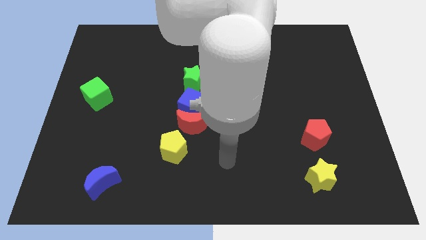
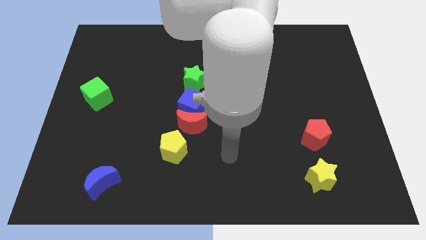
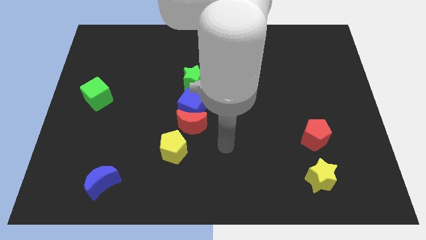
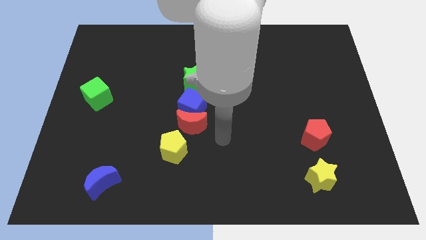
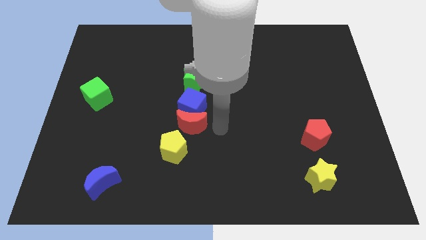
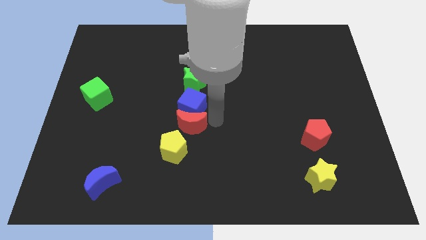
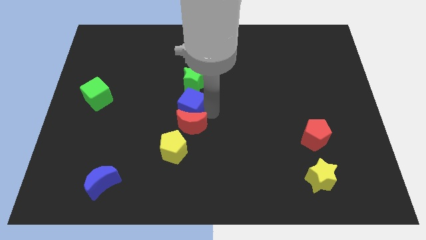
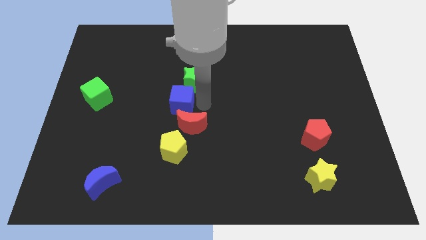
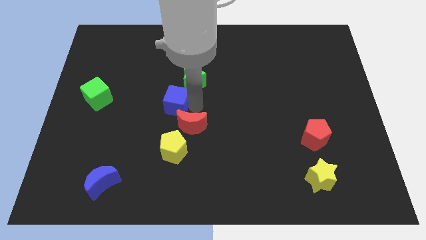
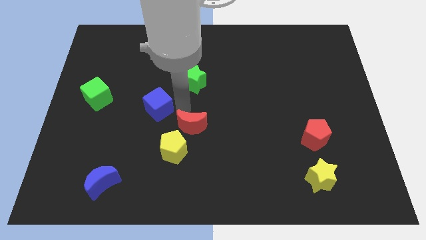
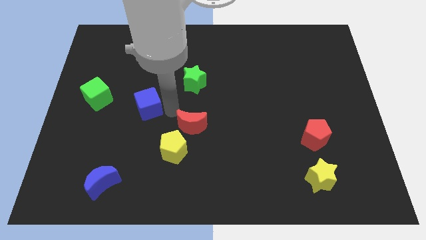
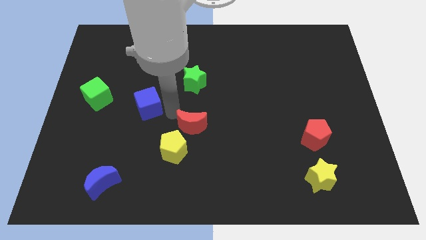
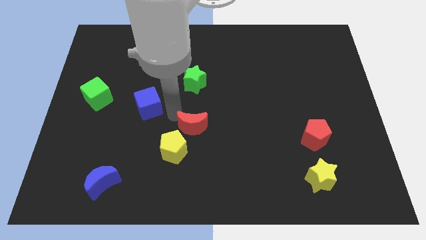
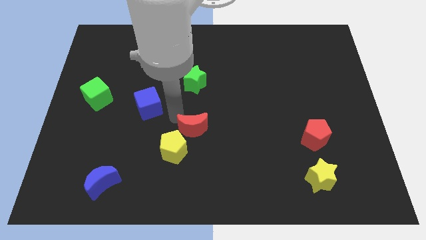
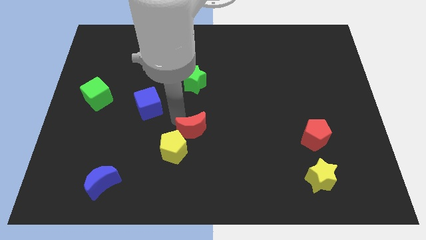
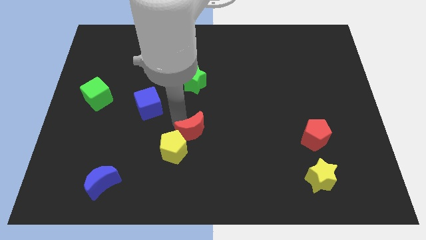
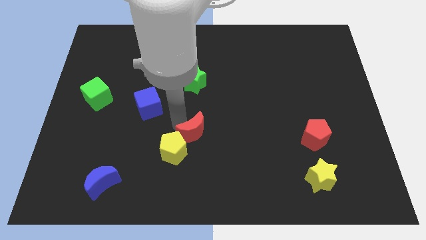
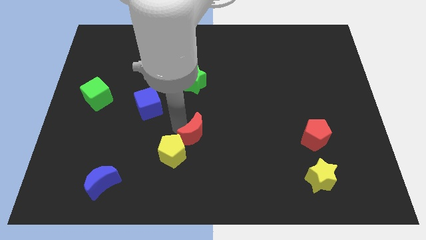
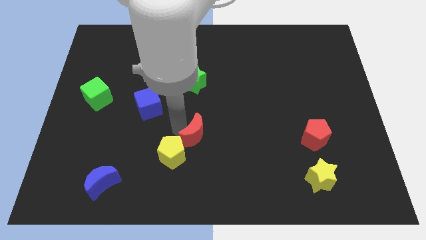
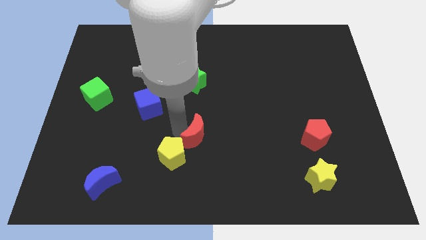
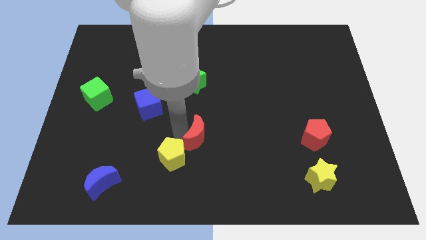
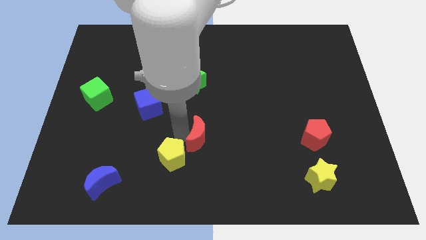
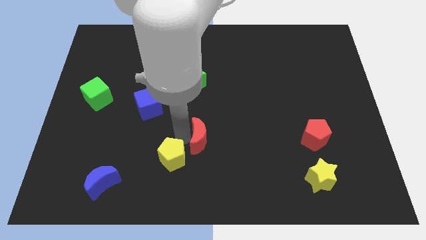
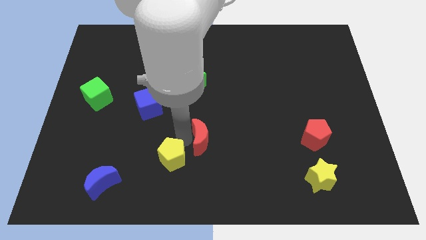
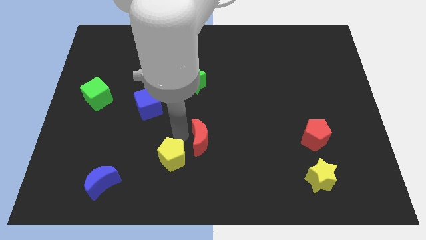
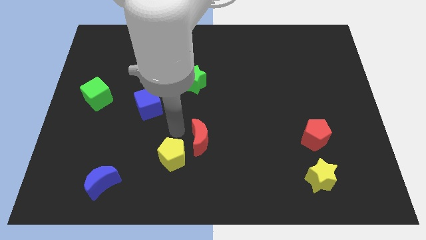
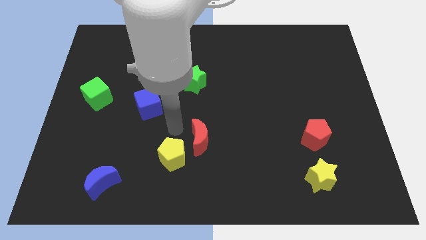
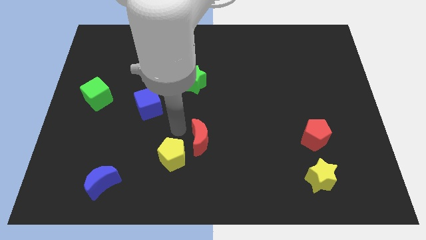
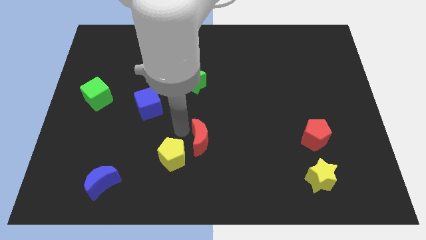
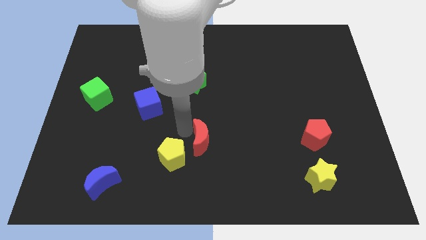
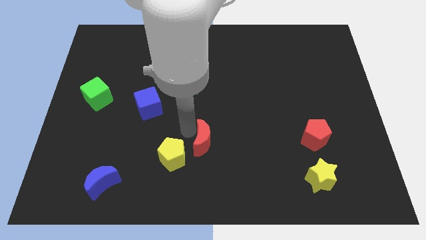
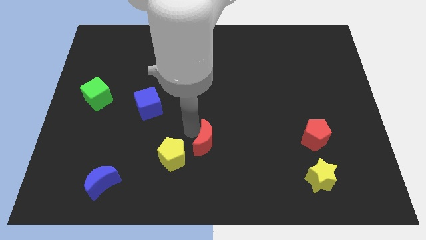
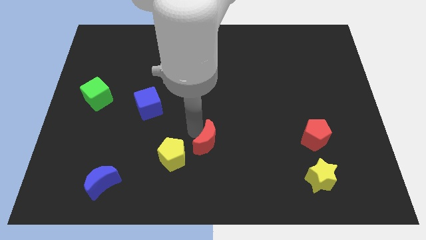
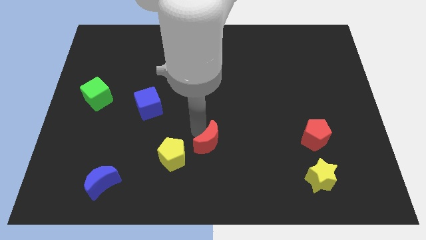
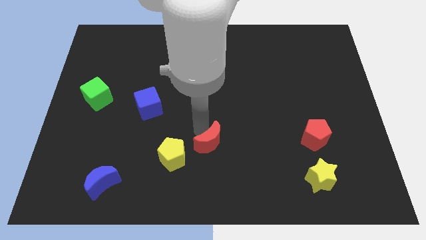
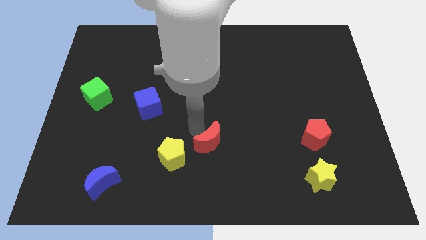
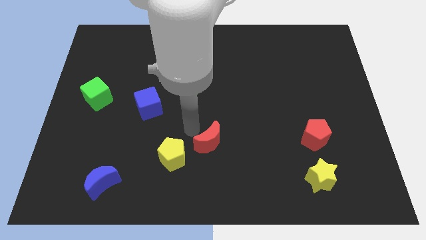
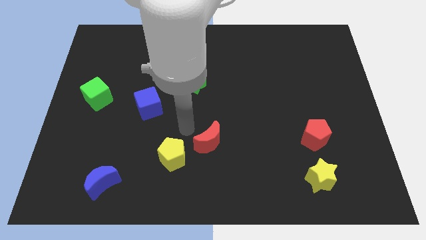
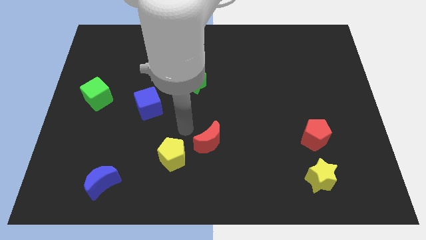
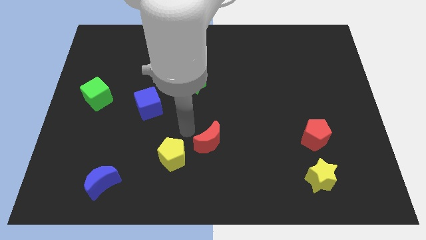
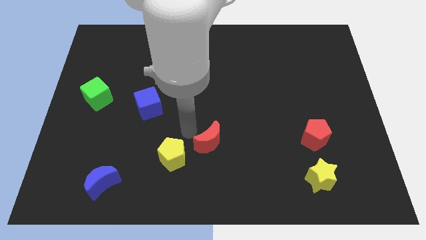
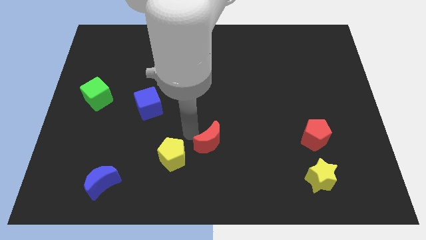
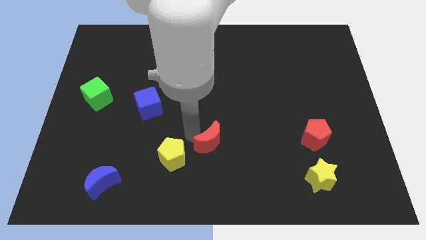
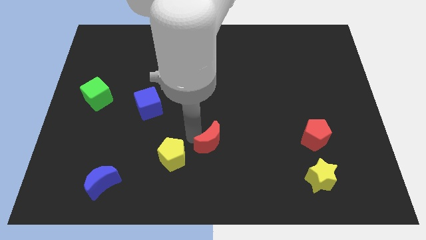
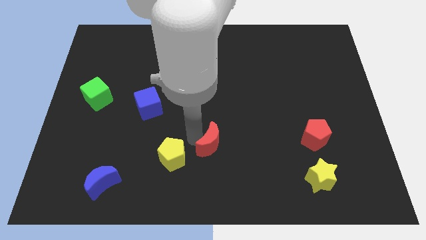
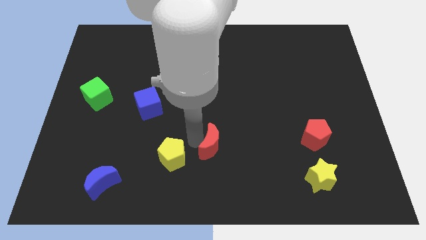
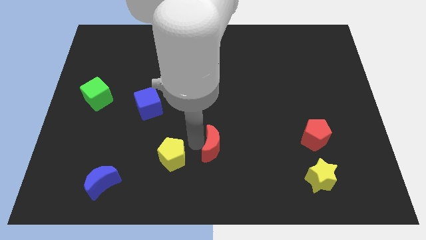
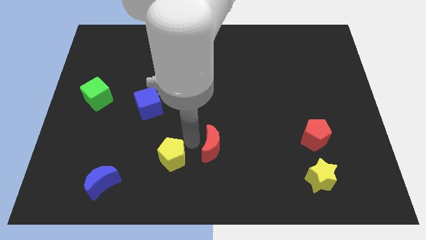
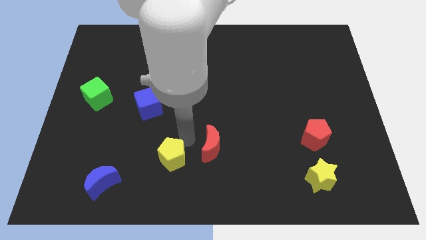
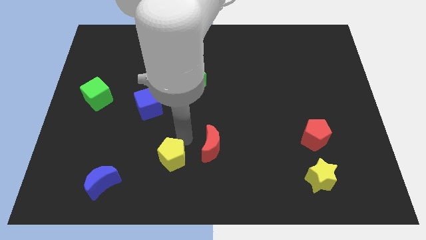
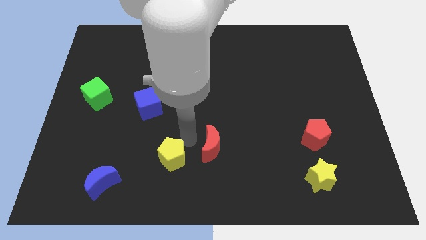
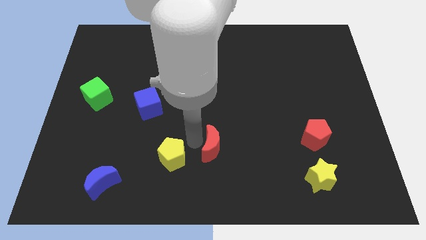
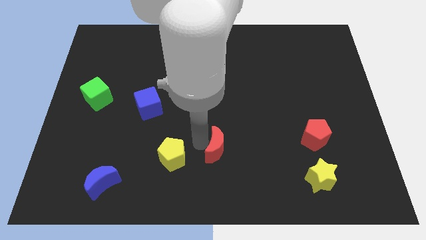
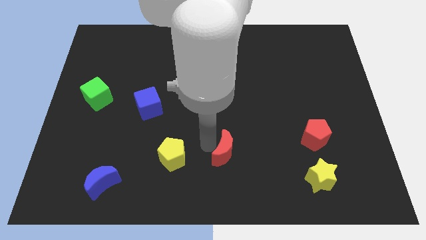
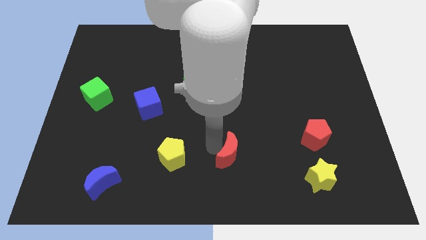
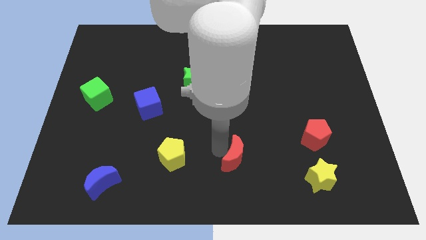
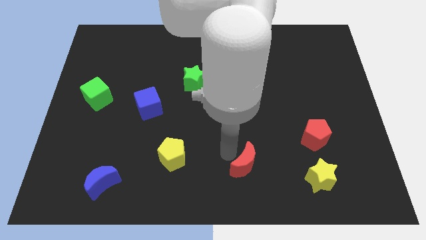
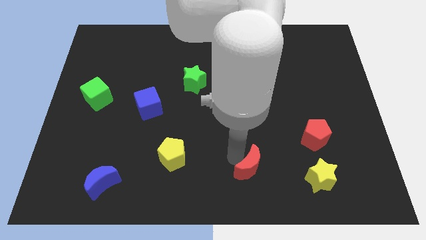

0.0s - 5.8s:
push the red moon left of the yellow star

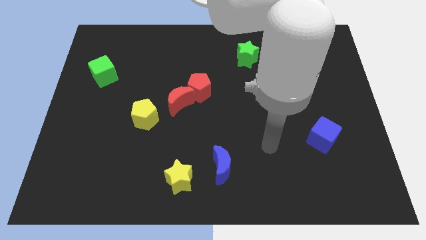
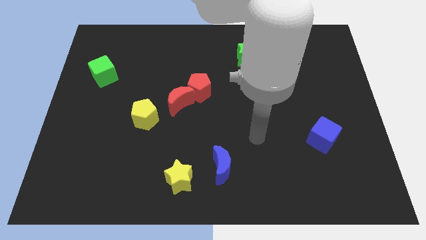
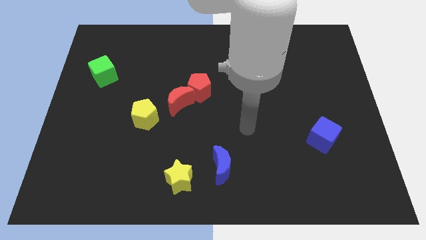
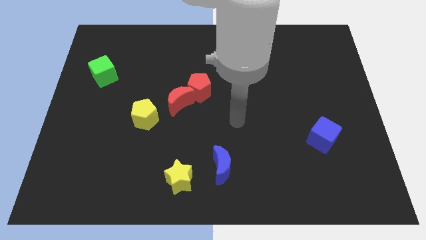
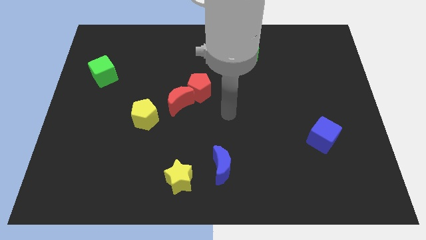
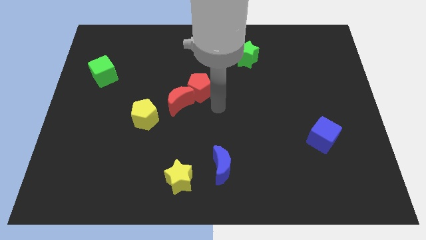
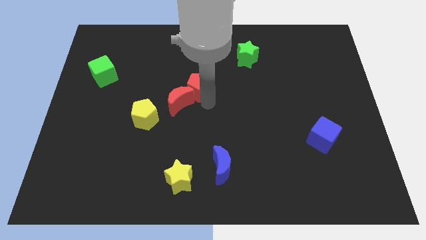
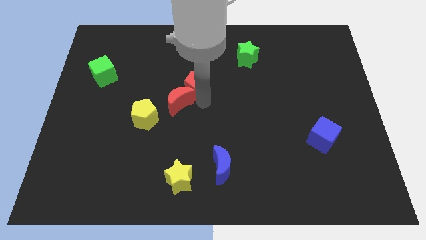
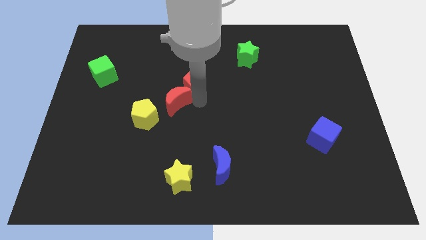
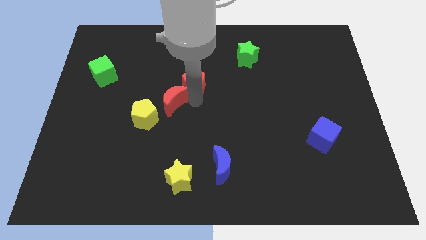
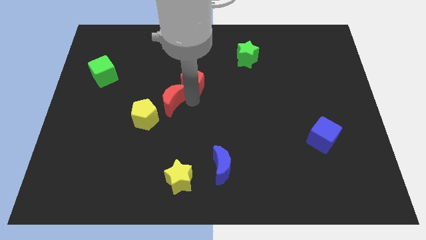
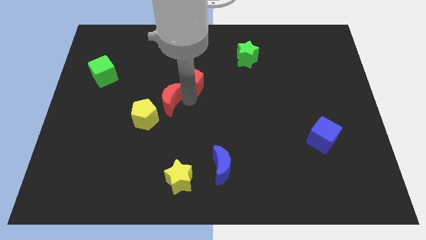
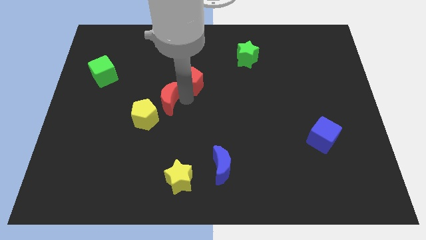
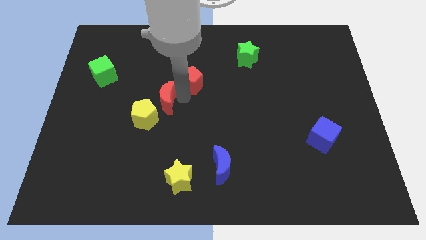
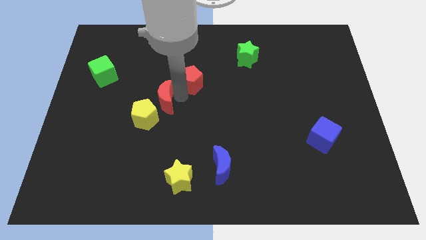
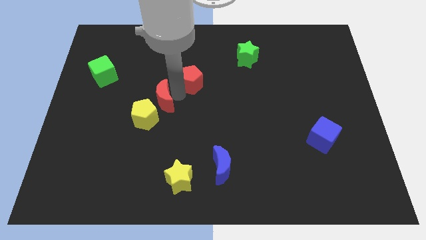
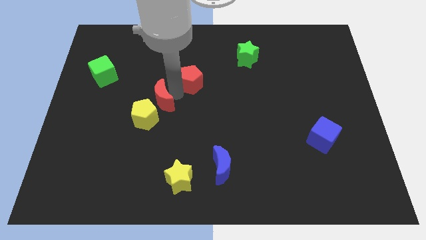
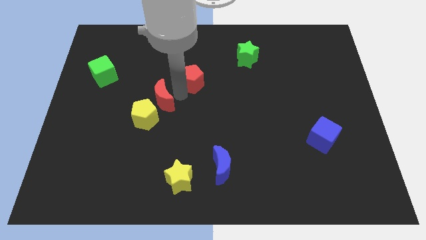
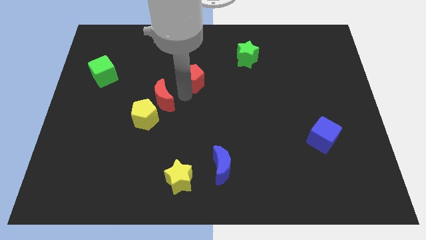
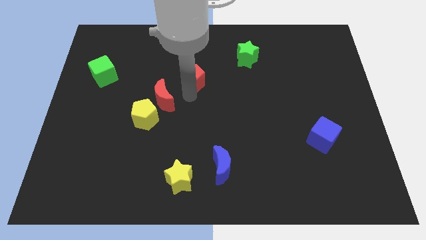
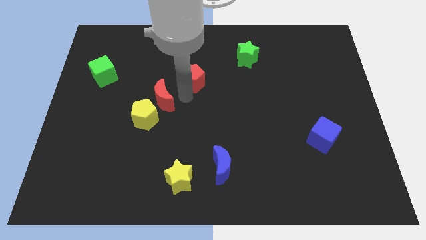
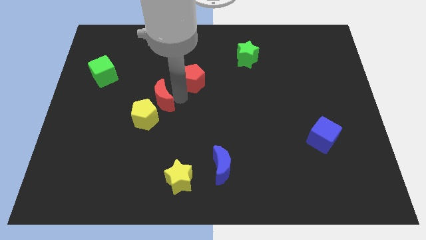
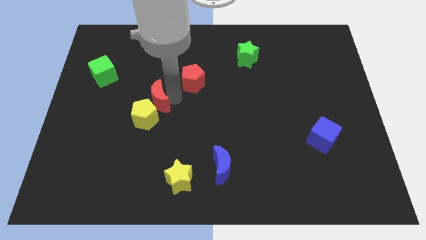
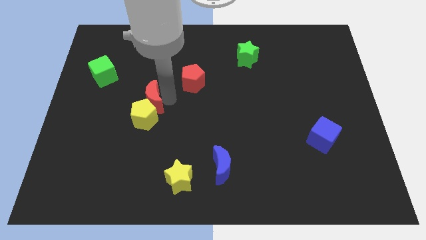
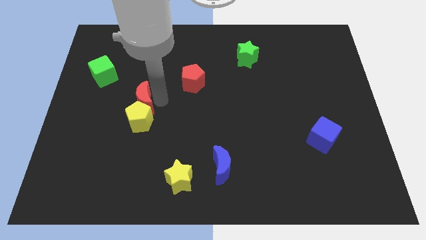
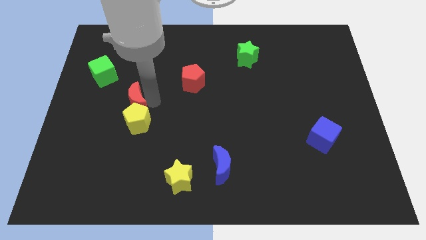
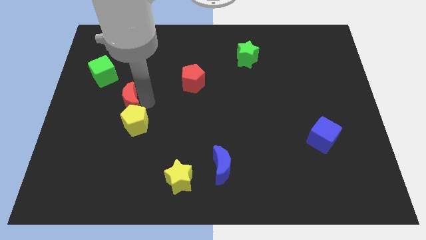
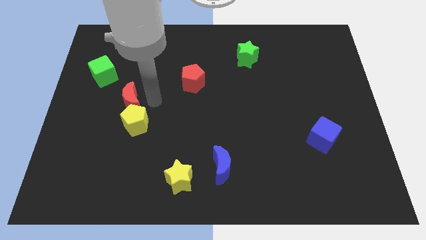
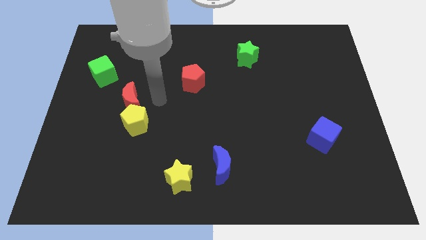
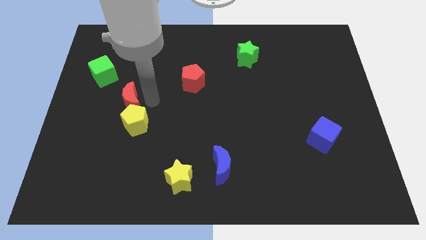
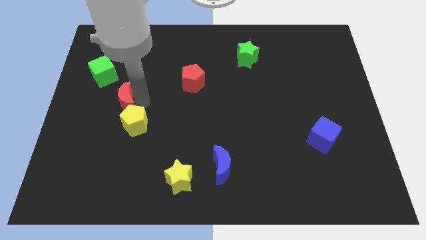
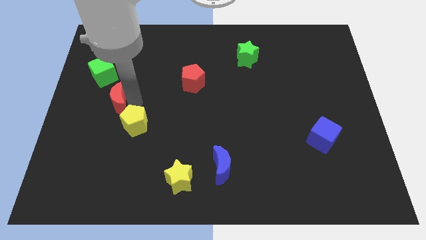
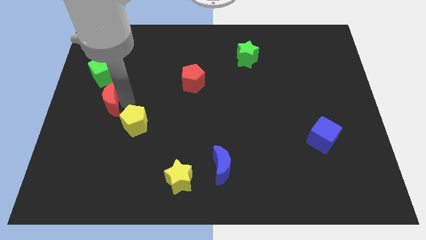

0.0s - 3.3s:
slide the red moon below the green cube
